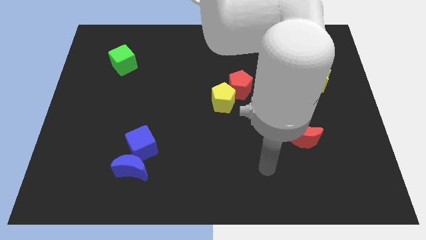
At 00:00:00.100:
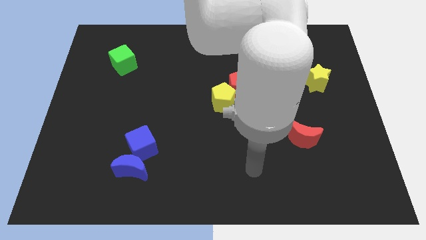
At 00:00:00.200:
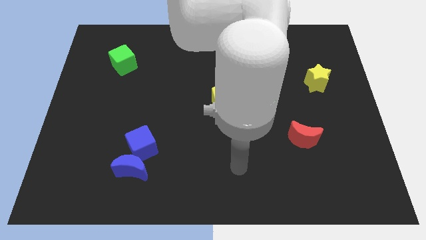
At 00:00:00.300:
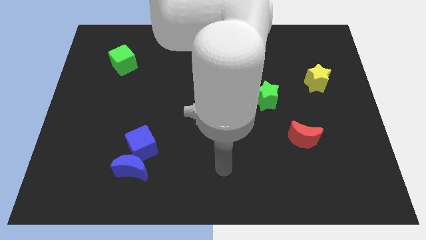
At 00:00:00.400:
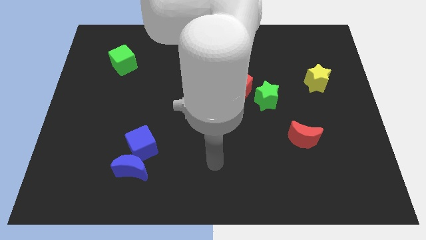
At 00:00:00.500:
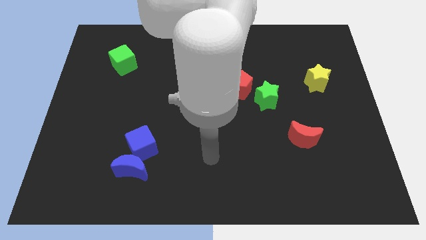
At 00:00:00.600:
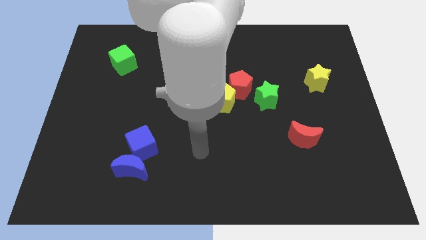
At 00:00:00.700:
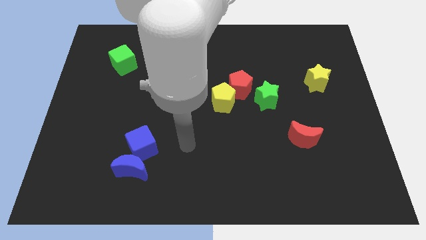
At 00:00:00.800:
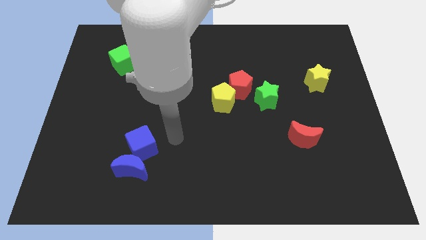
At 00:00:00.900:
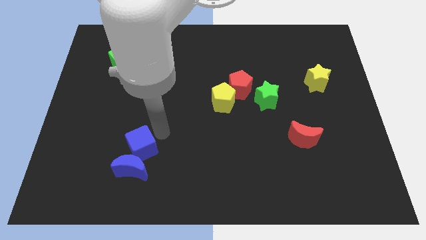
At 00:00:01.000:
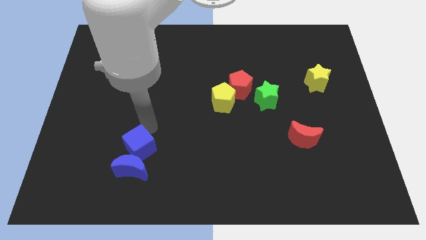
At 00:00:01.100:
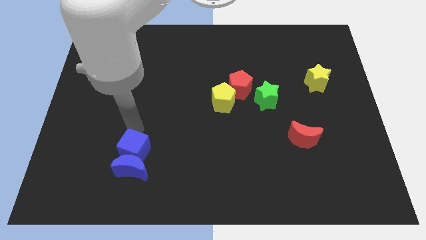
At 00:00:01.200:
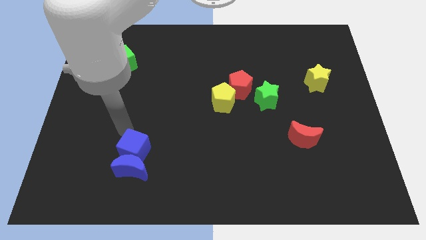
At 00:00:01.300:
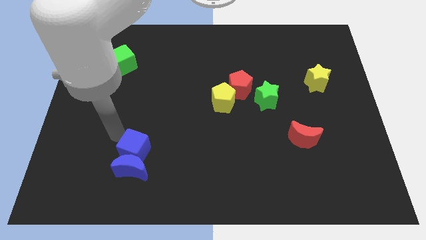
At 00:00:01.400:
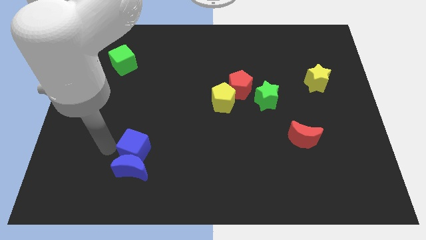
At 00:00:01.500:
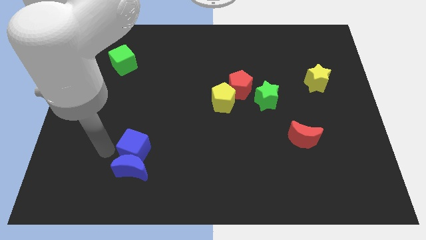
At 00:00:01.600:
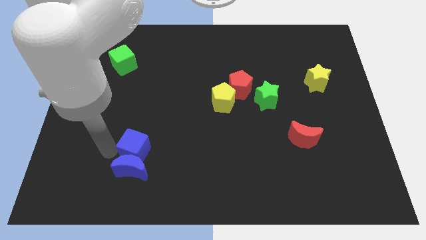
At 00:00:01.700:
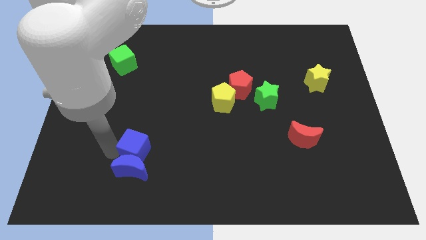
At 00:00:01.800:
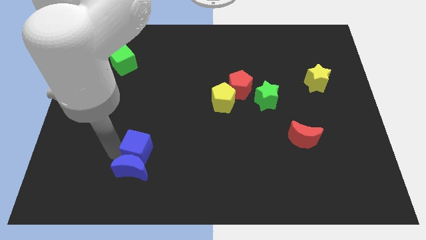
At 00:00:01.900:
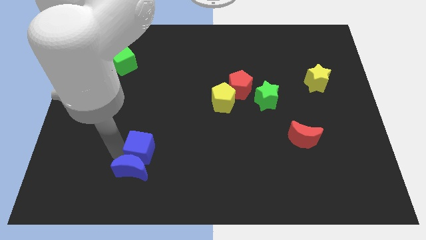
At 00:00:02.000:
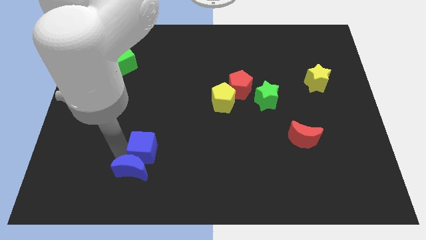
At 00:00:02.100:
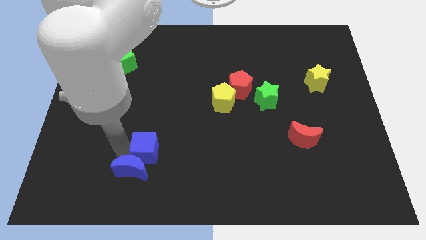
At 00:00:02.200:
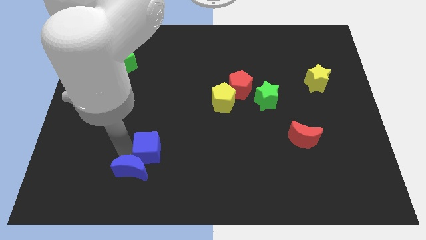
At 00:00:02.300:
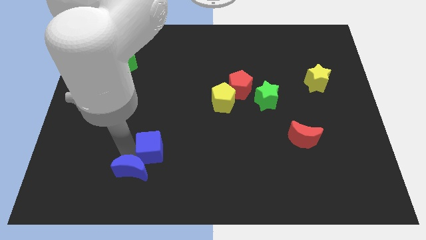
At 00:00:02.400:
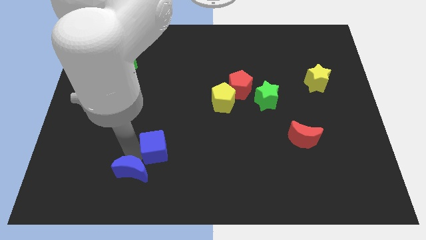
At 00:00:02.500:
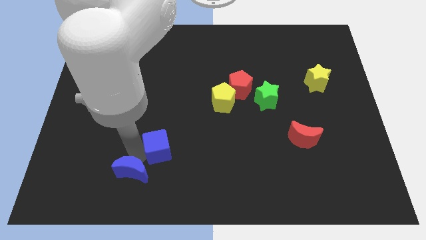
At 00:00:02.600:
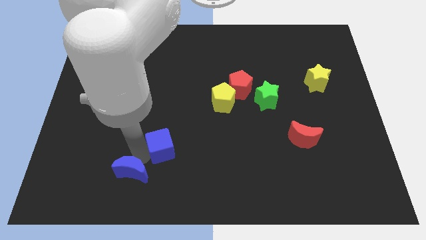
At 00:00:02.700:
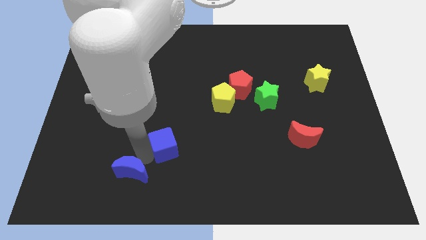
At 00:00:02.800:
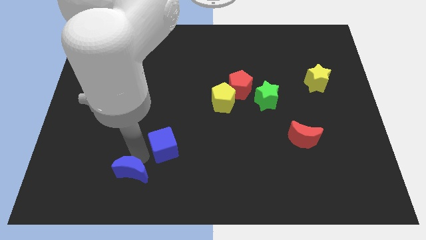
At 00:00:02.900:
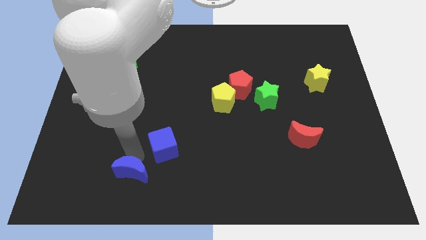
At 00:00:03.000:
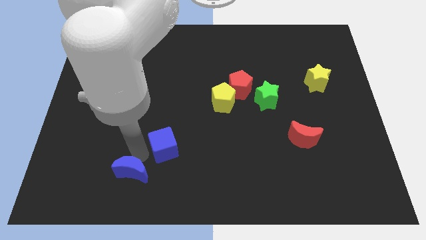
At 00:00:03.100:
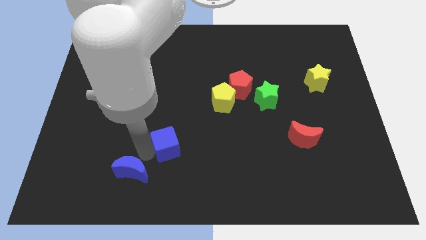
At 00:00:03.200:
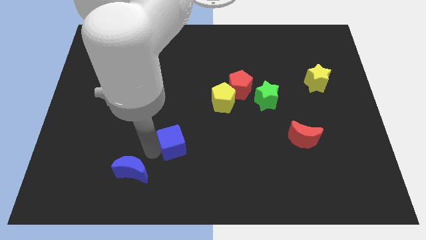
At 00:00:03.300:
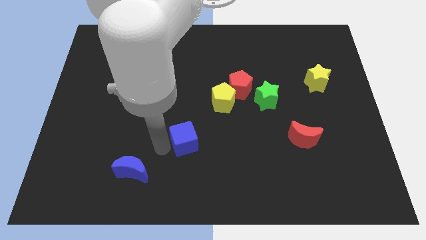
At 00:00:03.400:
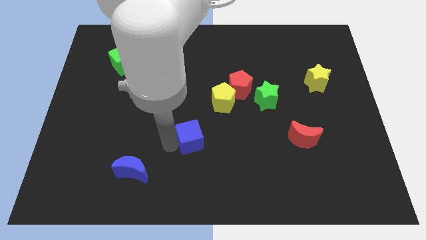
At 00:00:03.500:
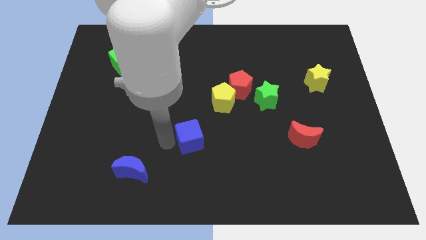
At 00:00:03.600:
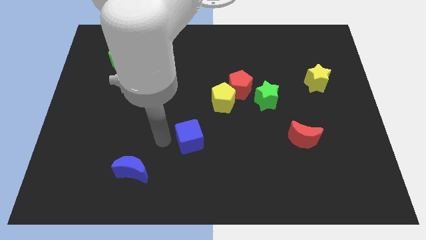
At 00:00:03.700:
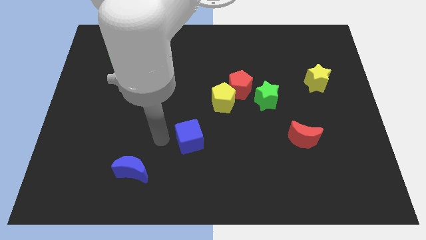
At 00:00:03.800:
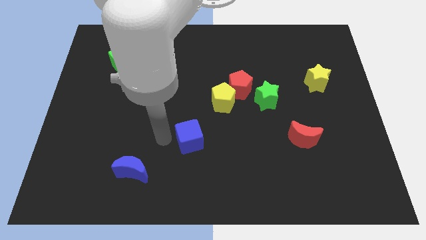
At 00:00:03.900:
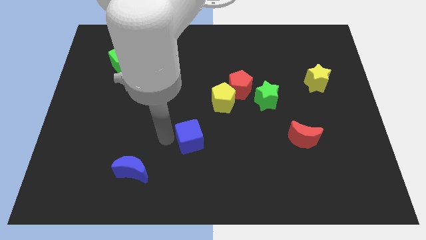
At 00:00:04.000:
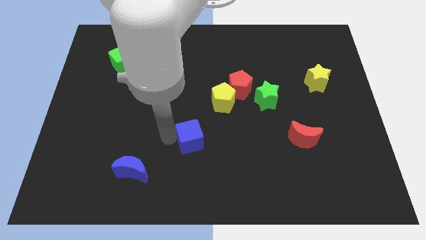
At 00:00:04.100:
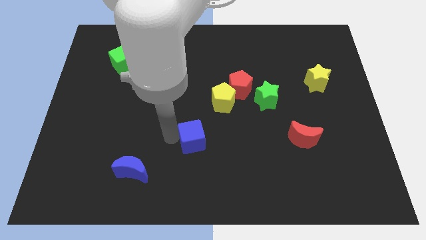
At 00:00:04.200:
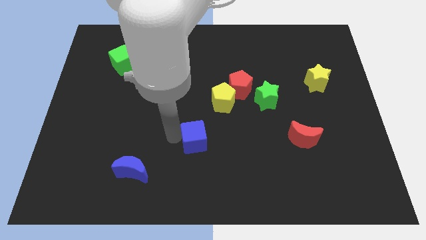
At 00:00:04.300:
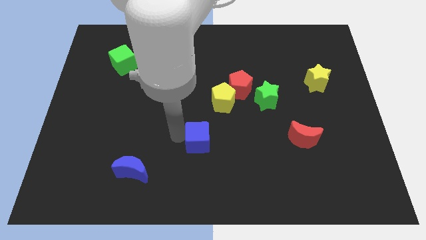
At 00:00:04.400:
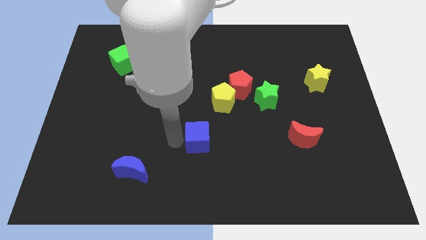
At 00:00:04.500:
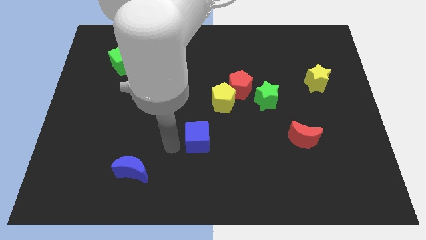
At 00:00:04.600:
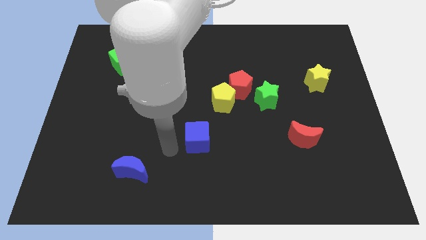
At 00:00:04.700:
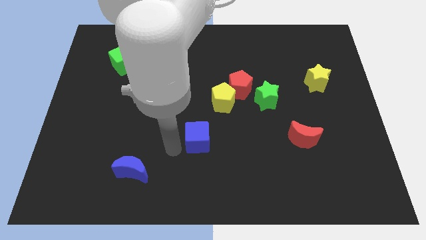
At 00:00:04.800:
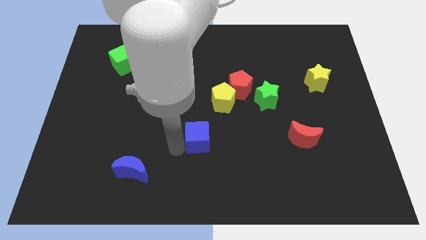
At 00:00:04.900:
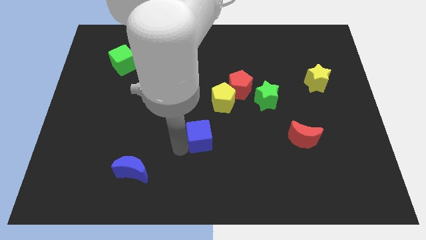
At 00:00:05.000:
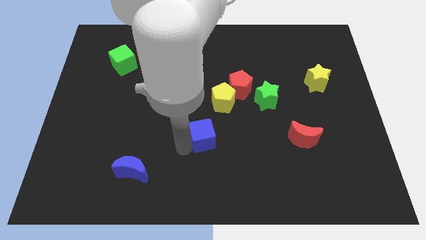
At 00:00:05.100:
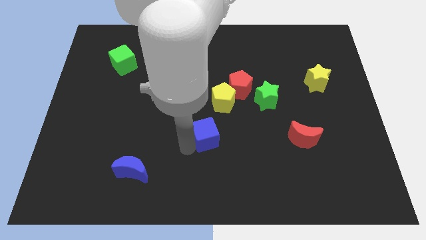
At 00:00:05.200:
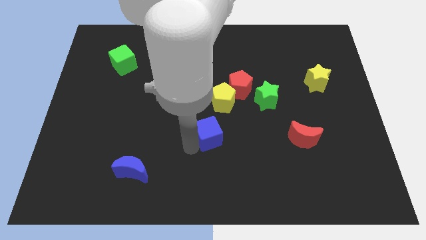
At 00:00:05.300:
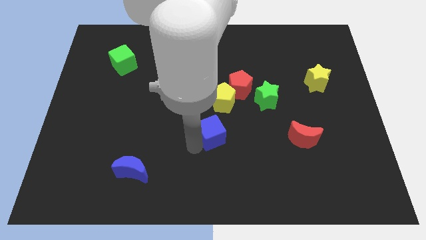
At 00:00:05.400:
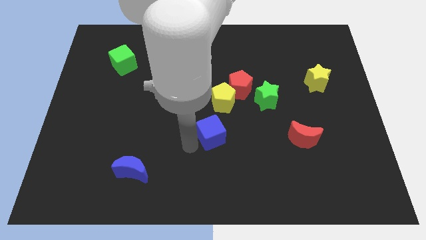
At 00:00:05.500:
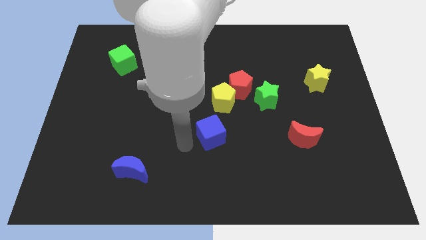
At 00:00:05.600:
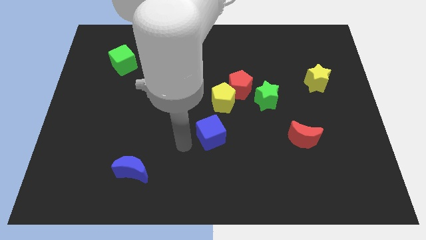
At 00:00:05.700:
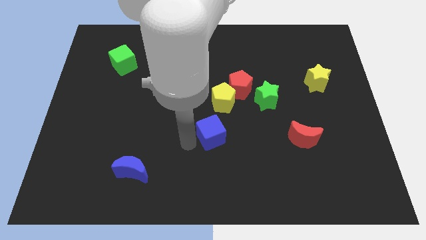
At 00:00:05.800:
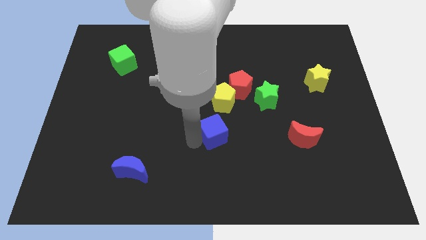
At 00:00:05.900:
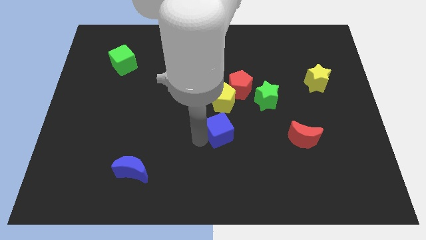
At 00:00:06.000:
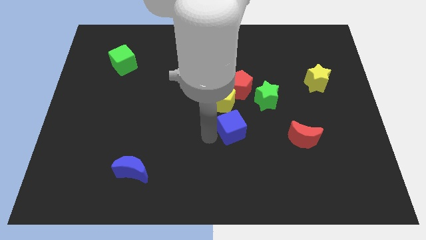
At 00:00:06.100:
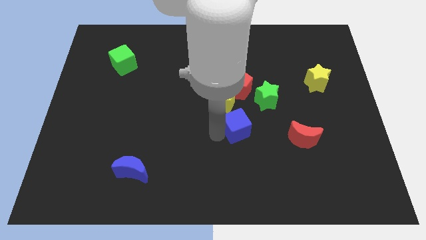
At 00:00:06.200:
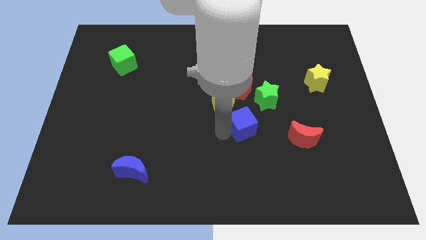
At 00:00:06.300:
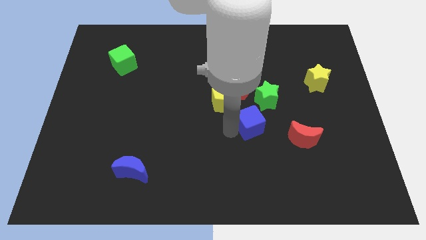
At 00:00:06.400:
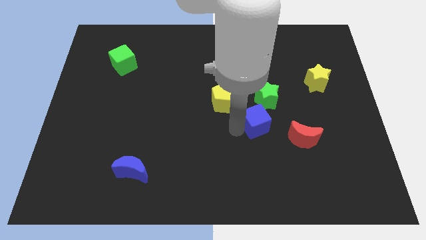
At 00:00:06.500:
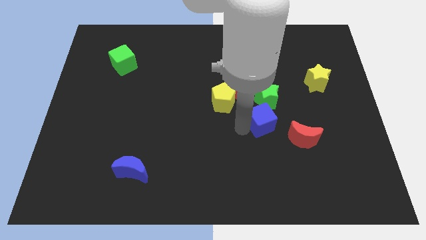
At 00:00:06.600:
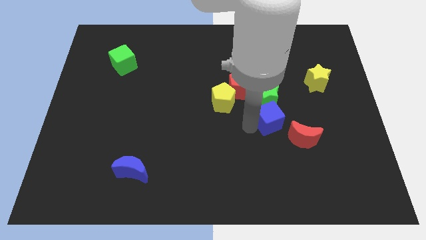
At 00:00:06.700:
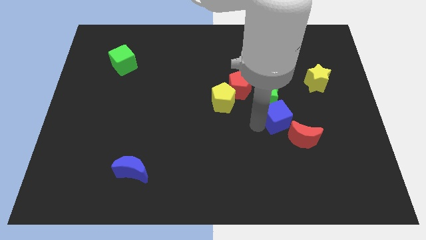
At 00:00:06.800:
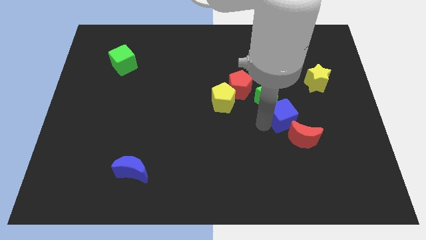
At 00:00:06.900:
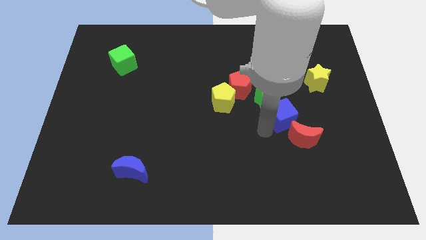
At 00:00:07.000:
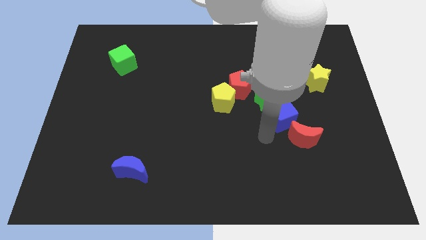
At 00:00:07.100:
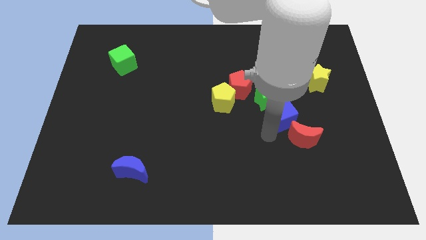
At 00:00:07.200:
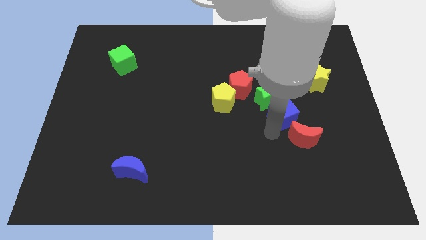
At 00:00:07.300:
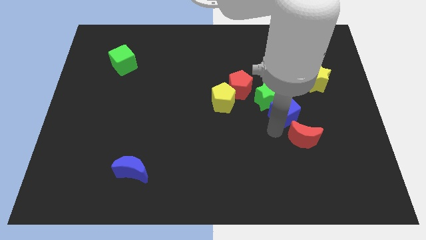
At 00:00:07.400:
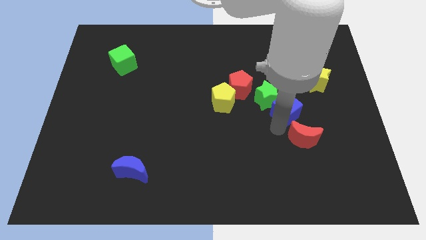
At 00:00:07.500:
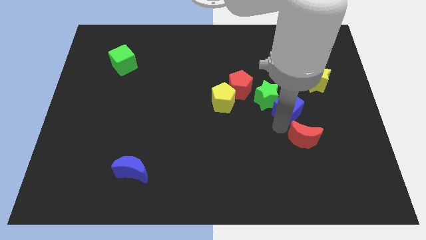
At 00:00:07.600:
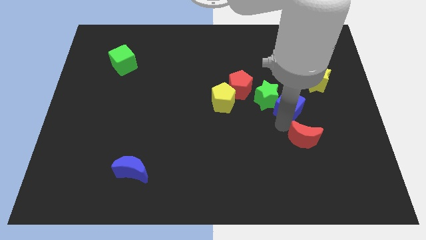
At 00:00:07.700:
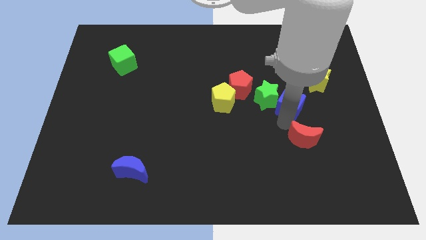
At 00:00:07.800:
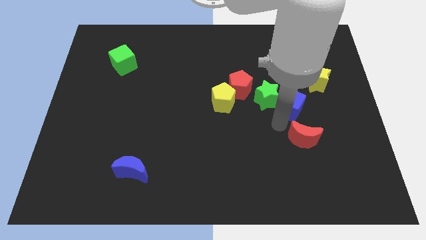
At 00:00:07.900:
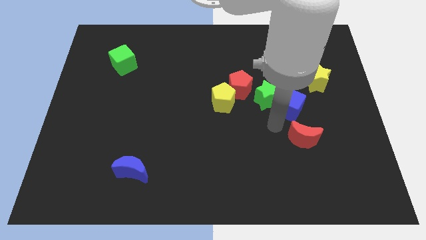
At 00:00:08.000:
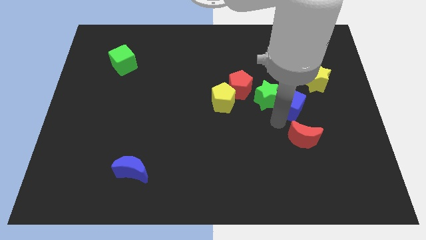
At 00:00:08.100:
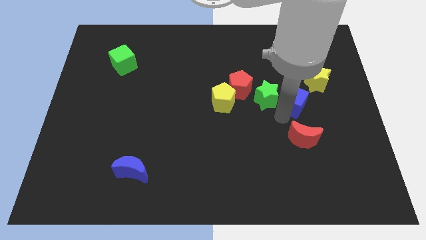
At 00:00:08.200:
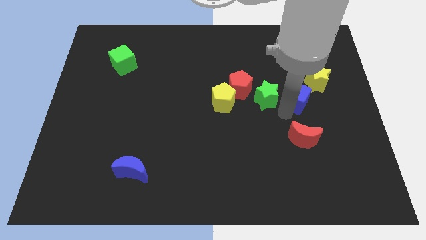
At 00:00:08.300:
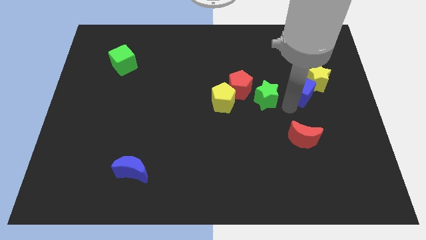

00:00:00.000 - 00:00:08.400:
move the blue cube to the yellow star
